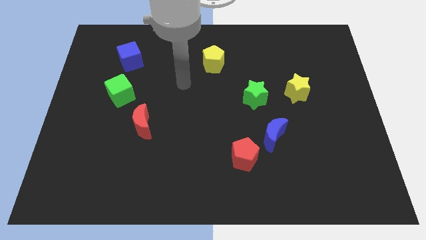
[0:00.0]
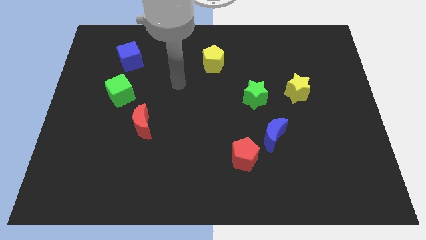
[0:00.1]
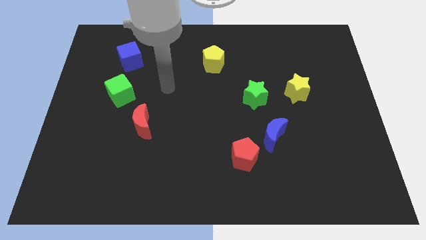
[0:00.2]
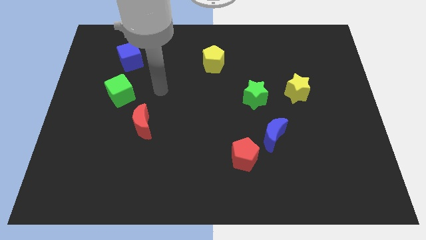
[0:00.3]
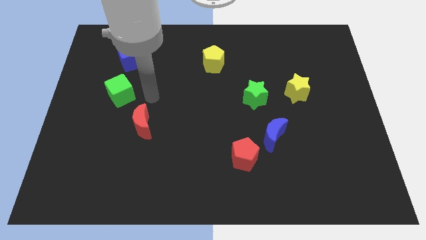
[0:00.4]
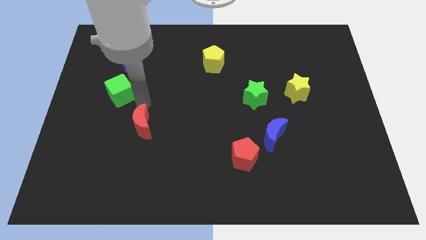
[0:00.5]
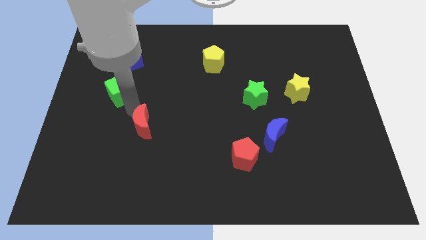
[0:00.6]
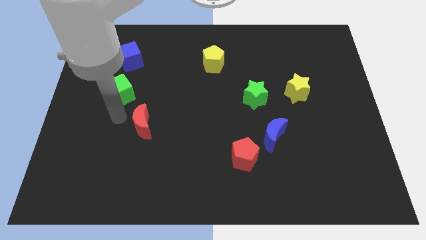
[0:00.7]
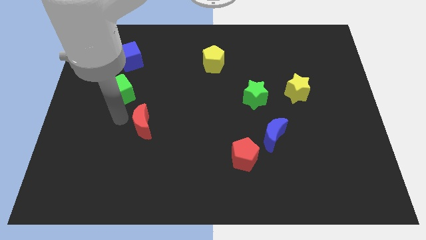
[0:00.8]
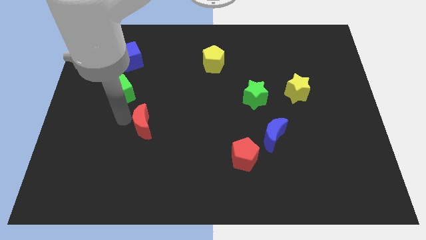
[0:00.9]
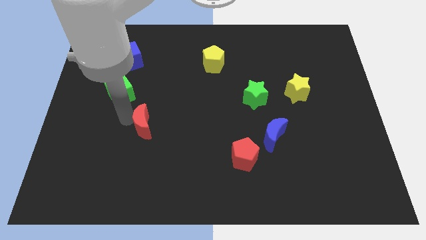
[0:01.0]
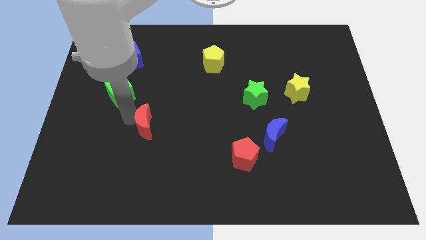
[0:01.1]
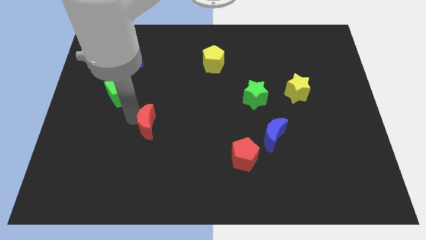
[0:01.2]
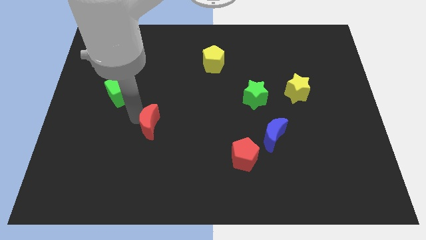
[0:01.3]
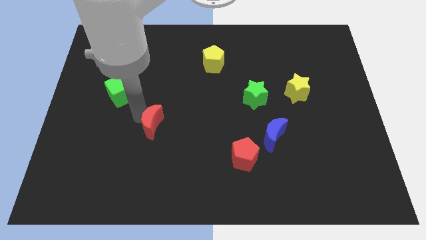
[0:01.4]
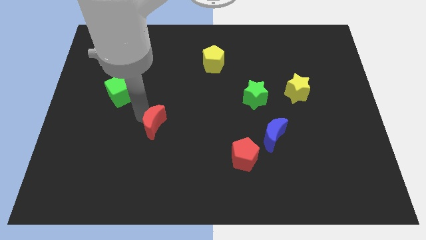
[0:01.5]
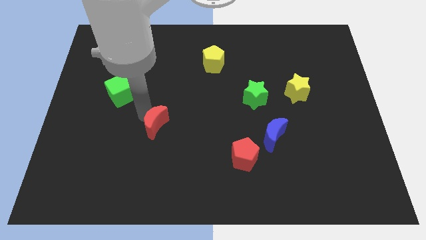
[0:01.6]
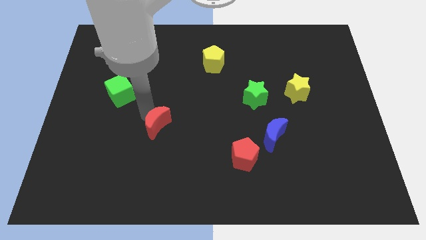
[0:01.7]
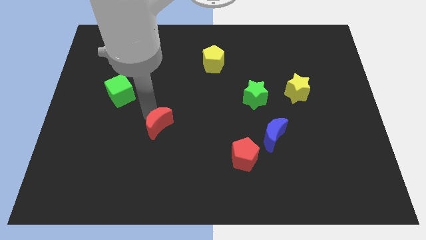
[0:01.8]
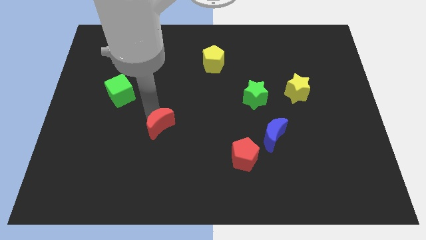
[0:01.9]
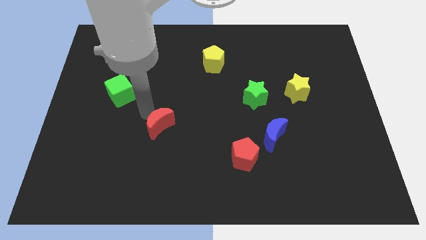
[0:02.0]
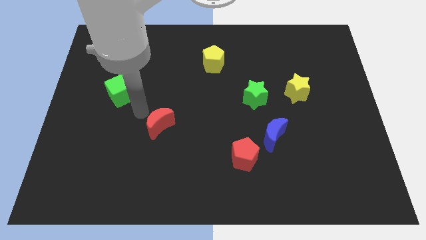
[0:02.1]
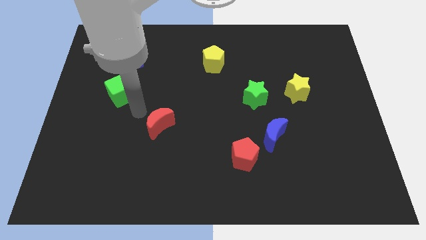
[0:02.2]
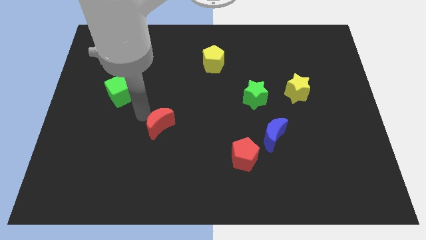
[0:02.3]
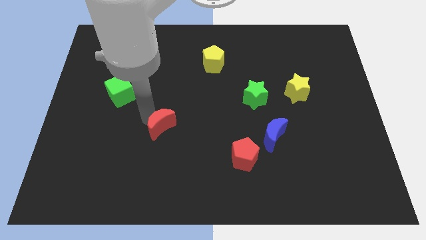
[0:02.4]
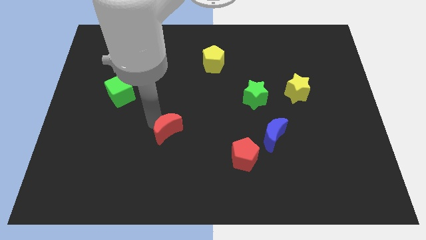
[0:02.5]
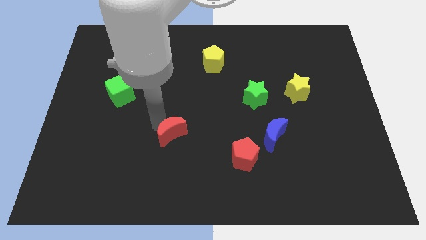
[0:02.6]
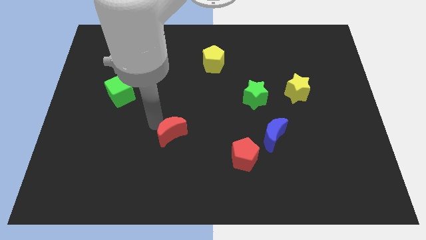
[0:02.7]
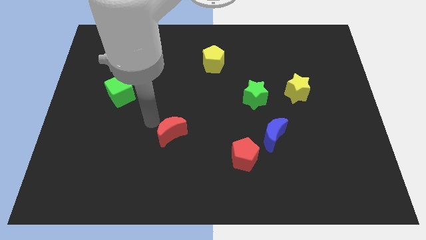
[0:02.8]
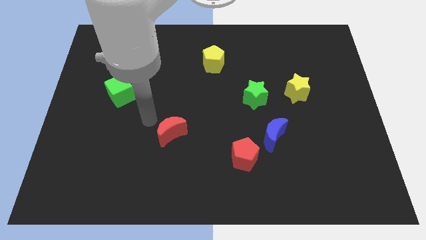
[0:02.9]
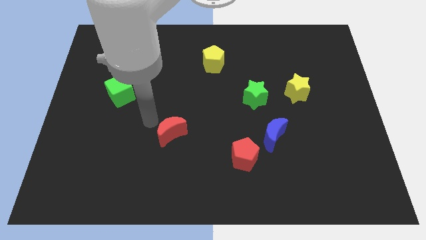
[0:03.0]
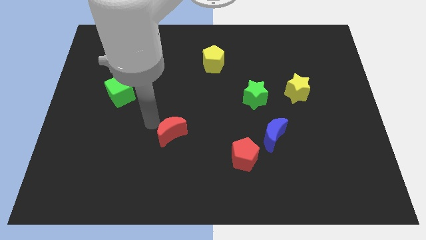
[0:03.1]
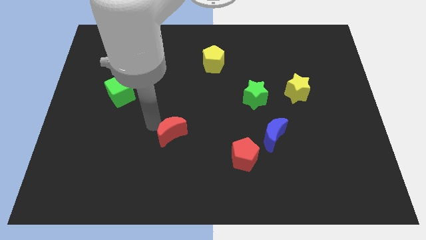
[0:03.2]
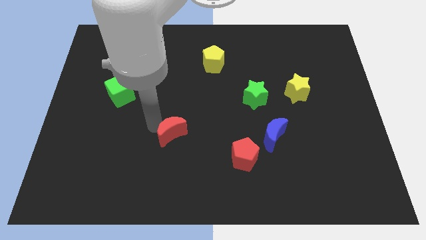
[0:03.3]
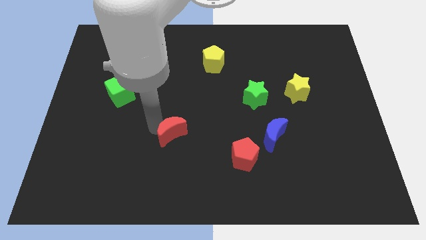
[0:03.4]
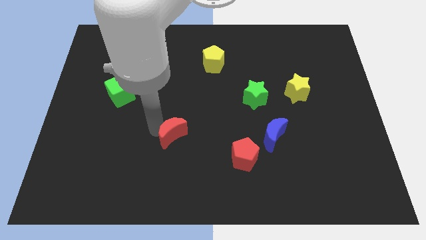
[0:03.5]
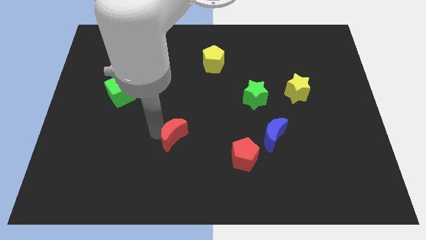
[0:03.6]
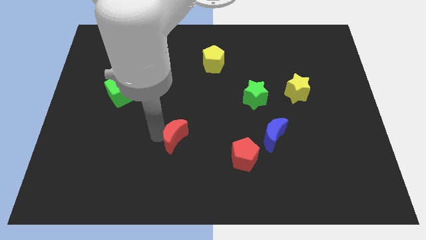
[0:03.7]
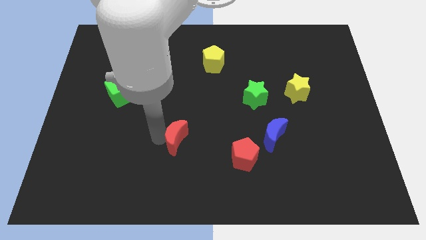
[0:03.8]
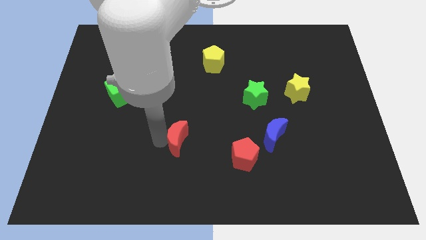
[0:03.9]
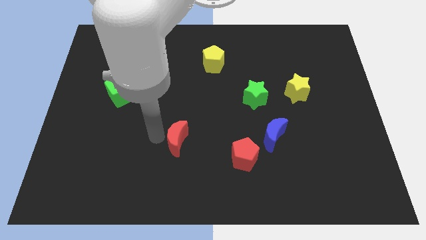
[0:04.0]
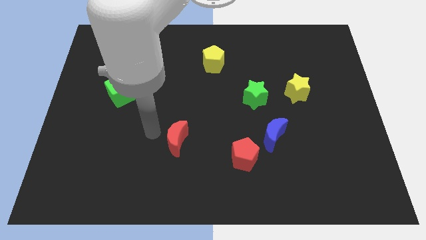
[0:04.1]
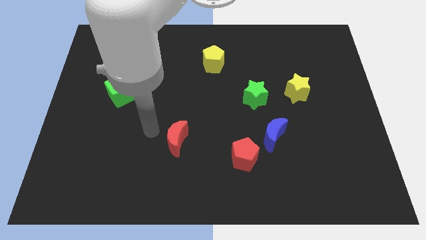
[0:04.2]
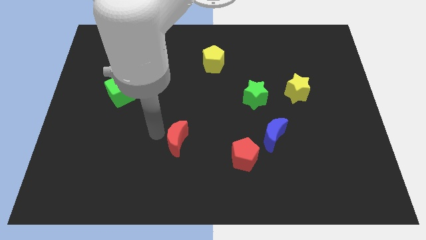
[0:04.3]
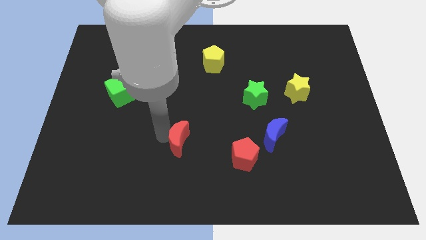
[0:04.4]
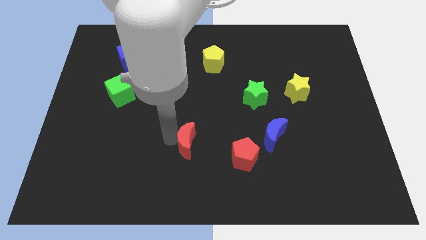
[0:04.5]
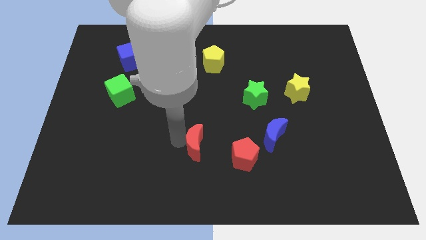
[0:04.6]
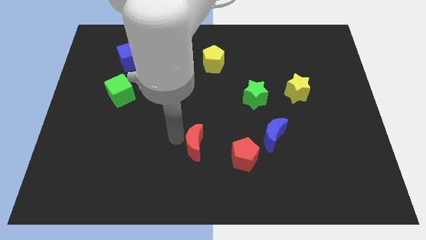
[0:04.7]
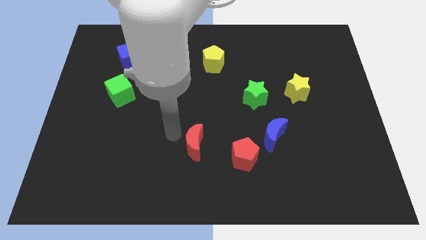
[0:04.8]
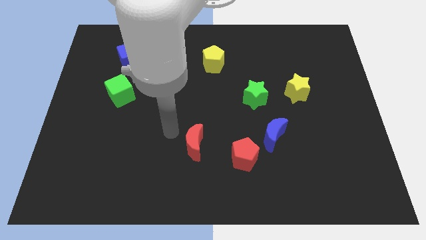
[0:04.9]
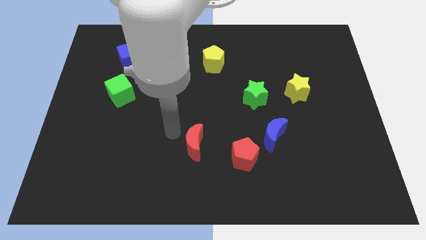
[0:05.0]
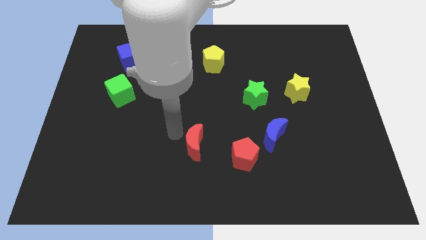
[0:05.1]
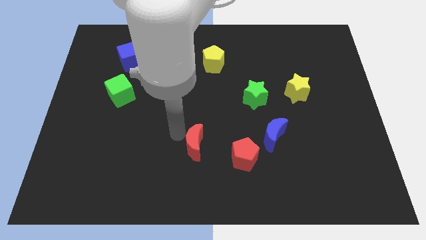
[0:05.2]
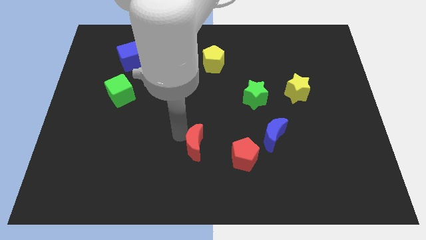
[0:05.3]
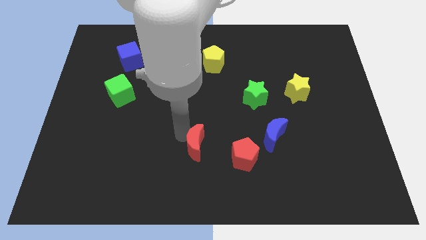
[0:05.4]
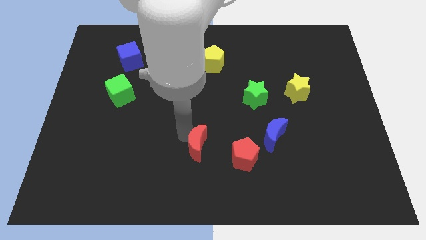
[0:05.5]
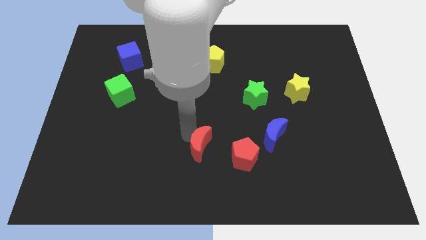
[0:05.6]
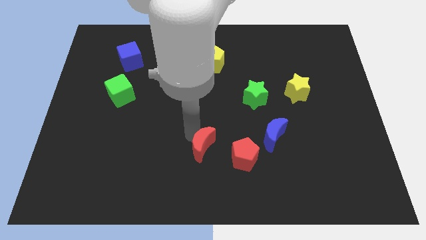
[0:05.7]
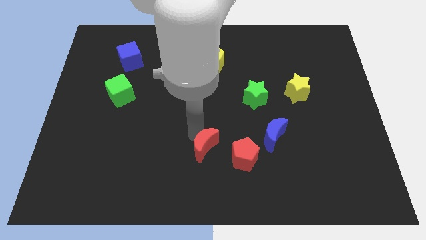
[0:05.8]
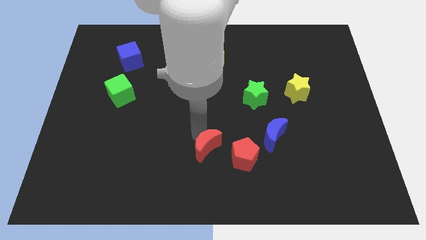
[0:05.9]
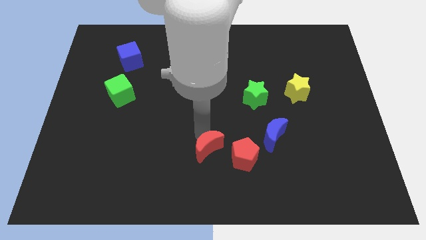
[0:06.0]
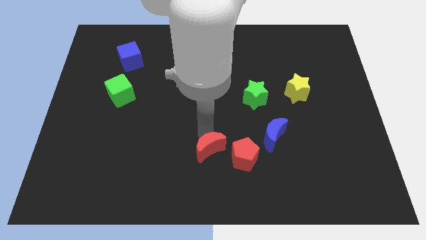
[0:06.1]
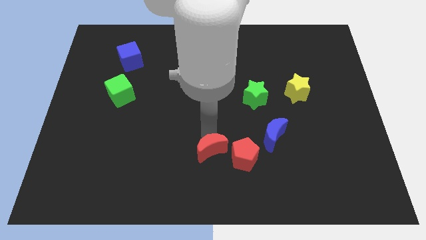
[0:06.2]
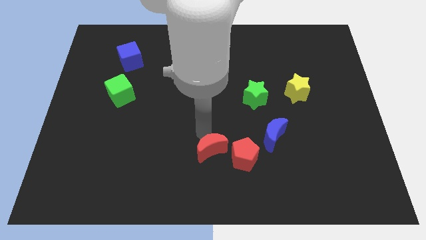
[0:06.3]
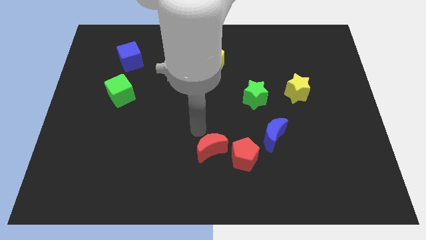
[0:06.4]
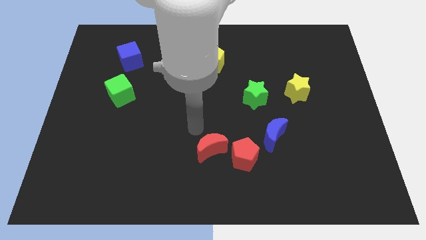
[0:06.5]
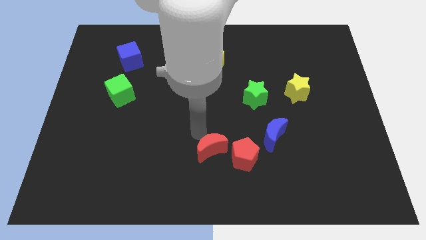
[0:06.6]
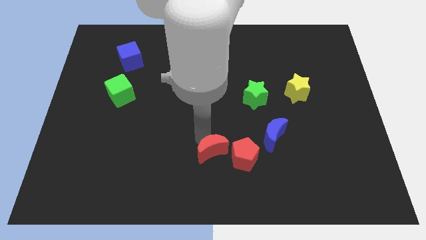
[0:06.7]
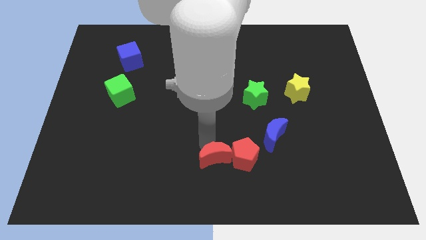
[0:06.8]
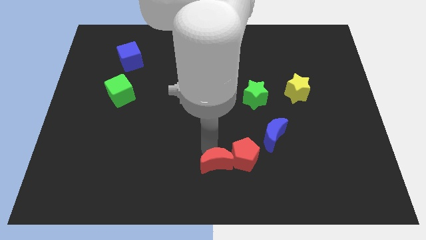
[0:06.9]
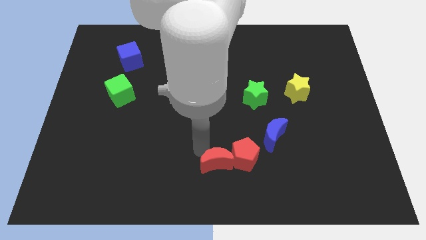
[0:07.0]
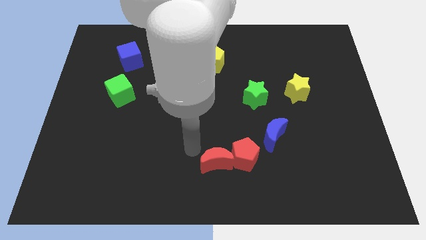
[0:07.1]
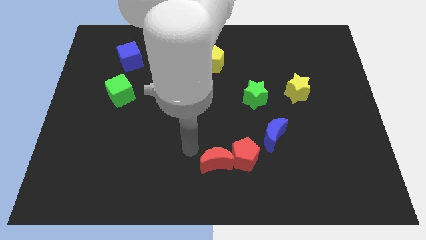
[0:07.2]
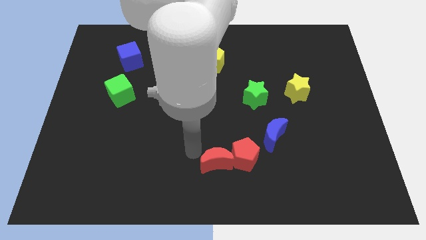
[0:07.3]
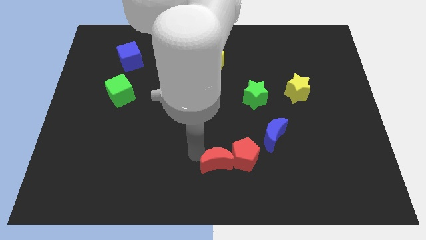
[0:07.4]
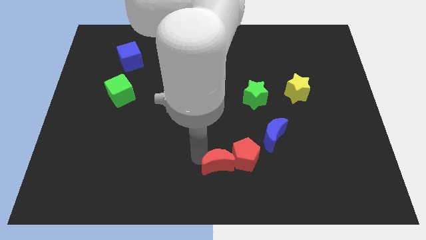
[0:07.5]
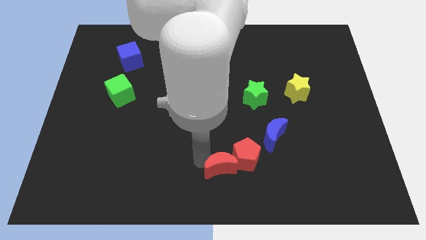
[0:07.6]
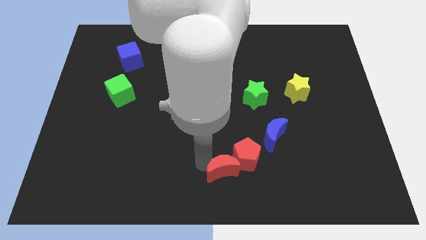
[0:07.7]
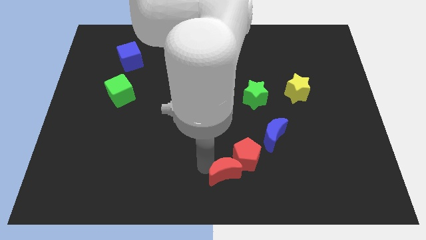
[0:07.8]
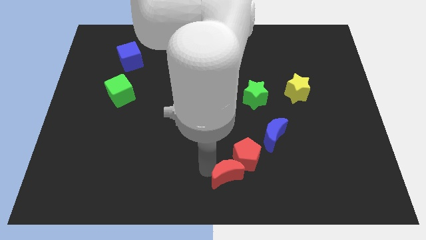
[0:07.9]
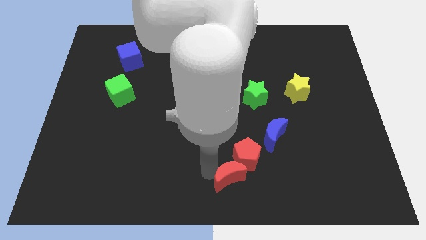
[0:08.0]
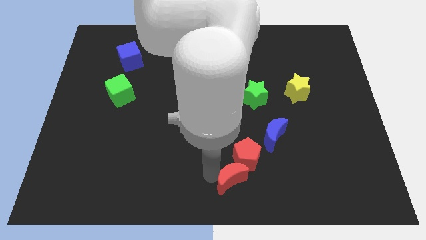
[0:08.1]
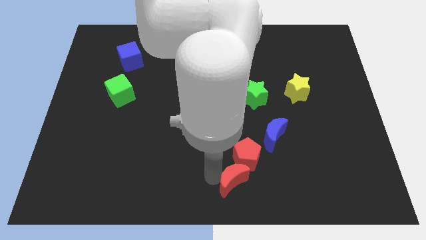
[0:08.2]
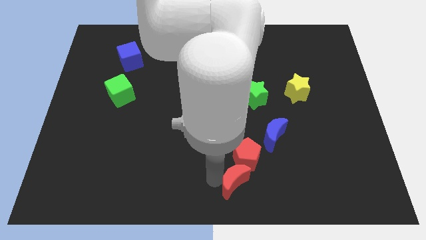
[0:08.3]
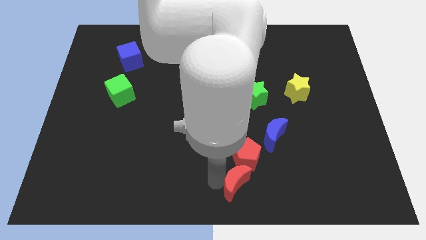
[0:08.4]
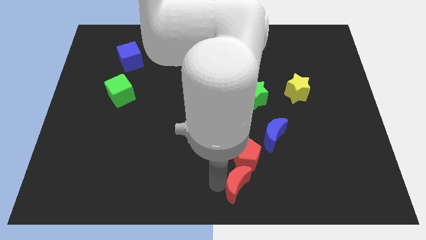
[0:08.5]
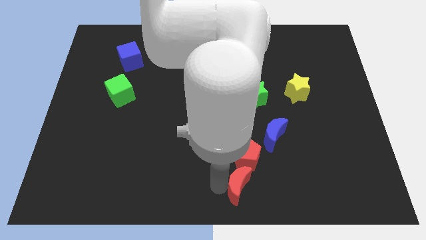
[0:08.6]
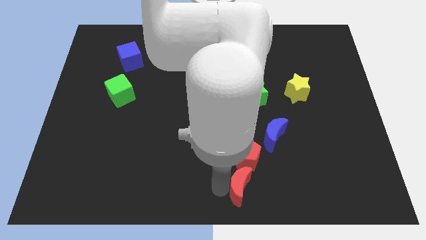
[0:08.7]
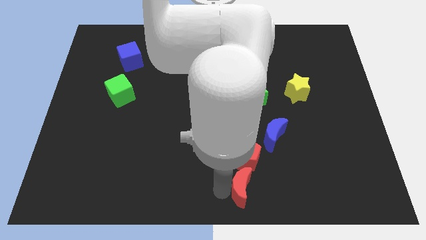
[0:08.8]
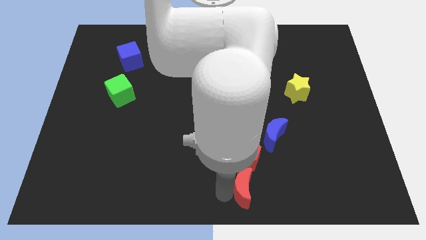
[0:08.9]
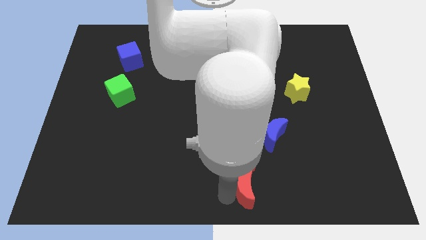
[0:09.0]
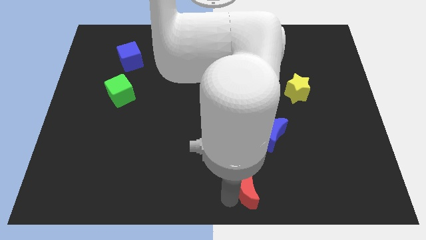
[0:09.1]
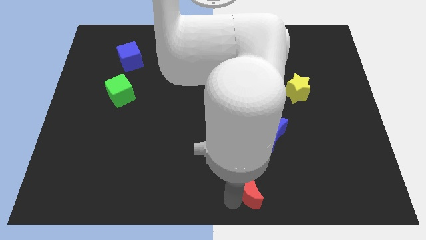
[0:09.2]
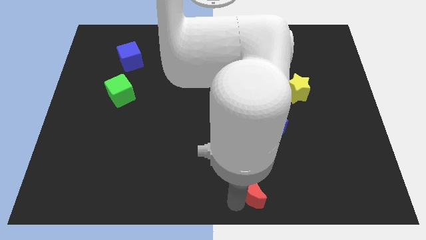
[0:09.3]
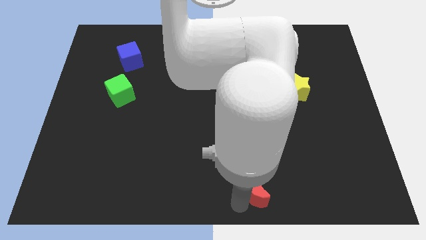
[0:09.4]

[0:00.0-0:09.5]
push the red moon diagonally down and to the right of the red pentagon
